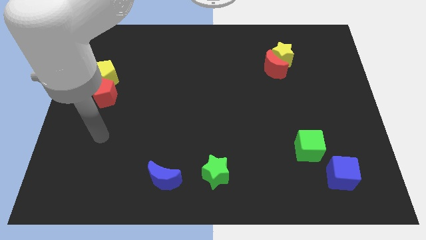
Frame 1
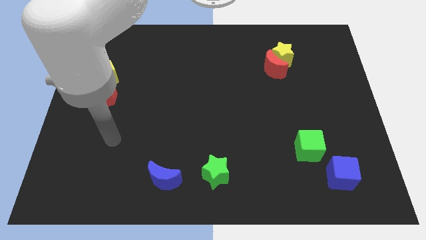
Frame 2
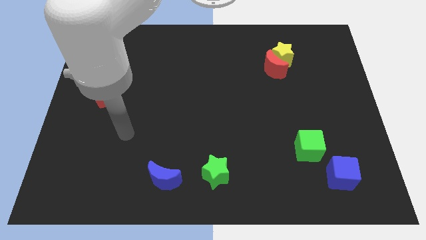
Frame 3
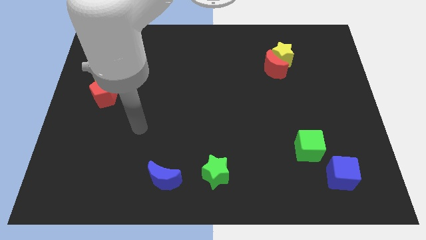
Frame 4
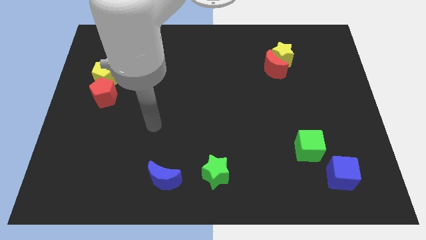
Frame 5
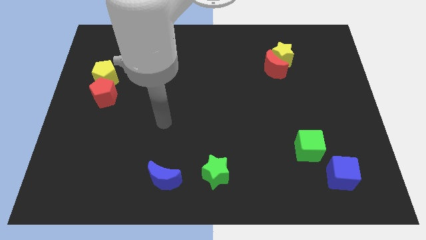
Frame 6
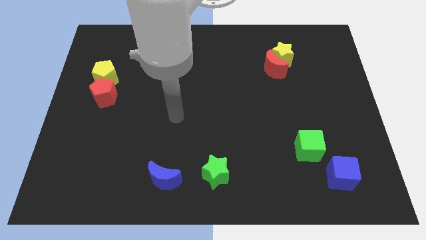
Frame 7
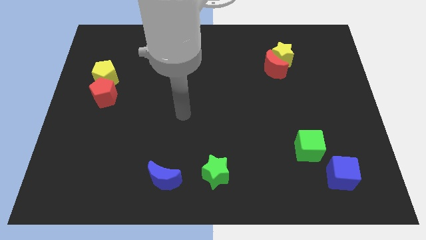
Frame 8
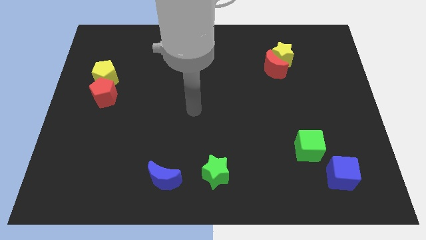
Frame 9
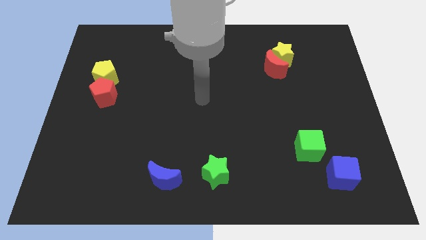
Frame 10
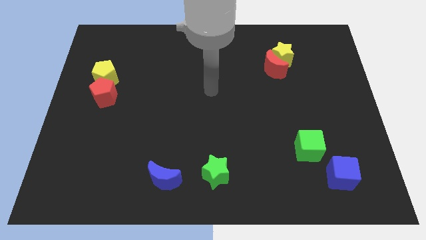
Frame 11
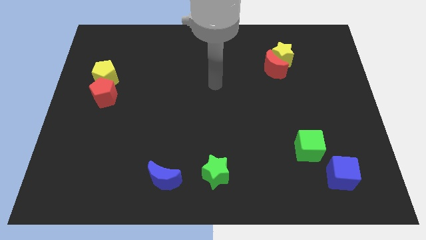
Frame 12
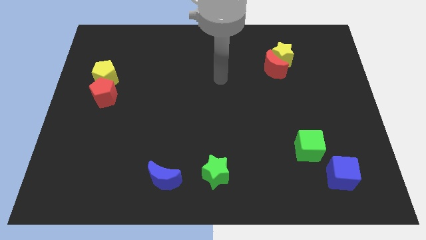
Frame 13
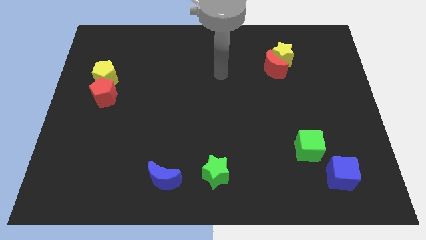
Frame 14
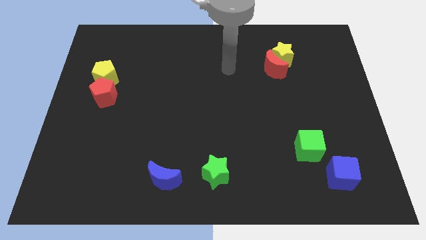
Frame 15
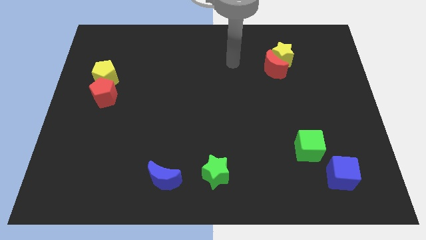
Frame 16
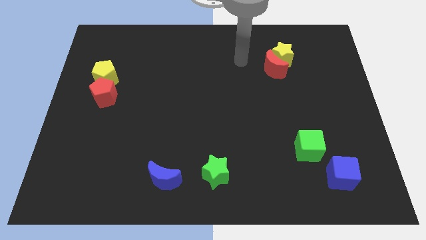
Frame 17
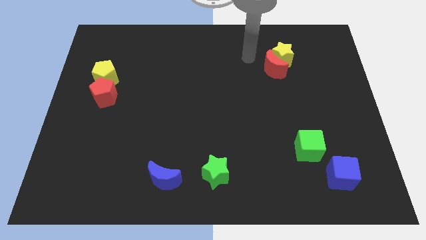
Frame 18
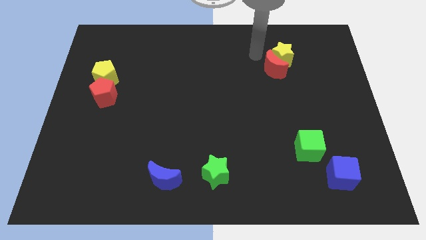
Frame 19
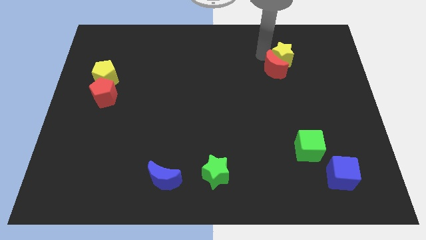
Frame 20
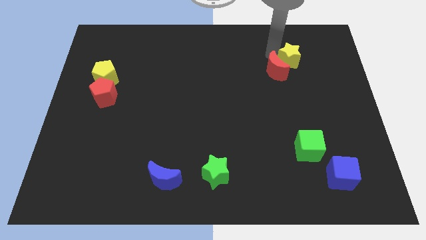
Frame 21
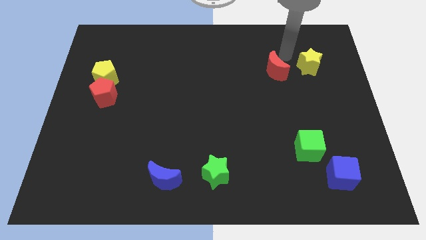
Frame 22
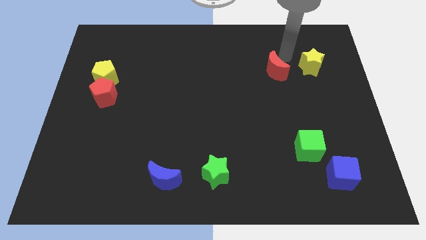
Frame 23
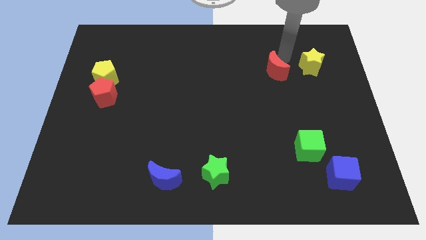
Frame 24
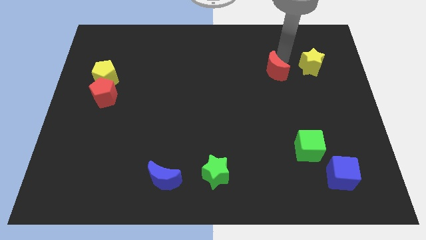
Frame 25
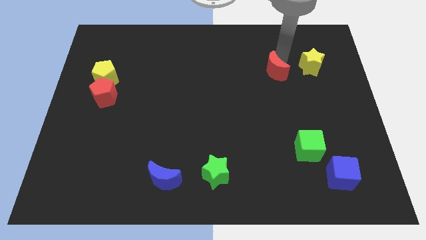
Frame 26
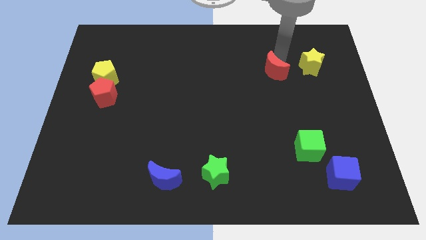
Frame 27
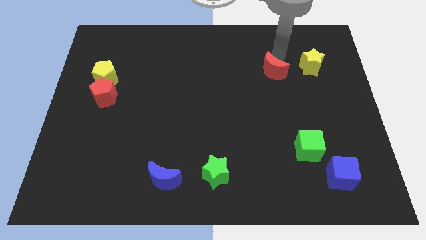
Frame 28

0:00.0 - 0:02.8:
move the red moon away from the yellow star

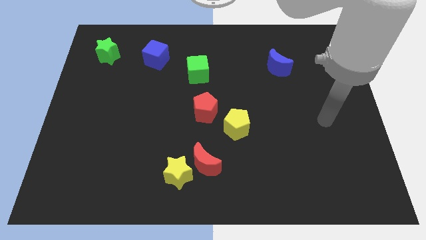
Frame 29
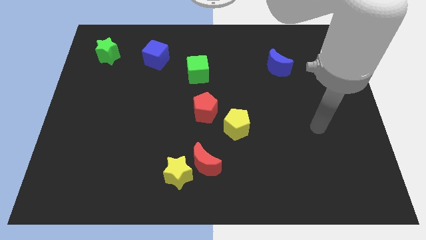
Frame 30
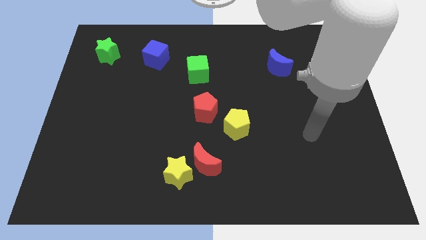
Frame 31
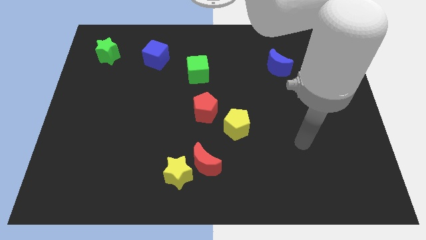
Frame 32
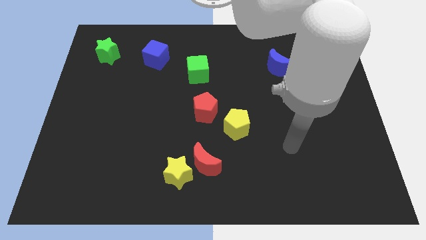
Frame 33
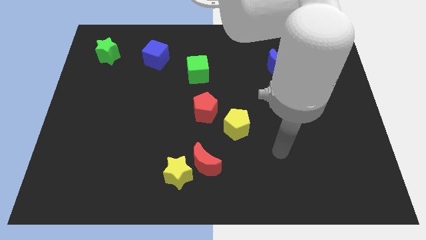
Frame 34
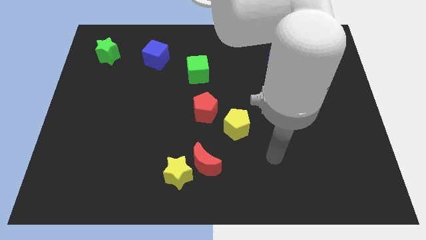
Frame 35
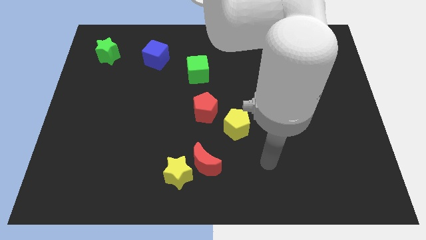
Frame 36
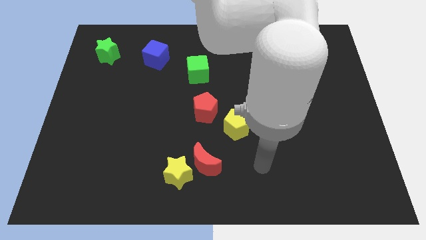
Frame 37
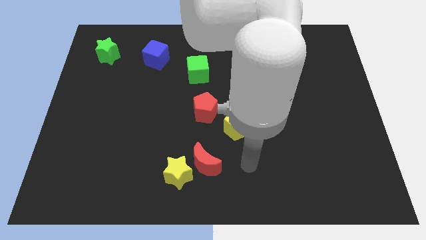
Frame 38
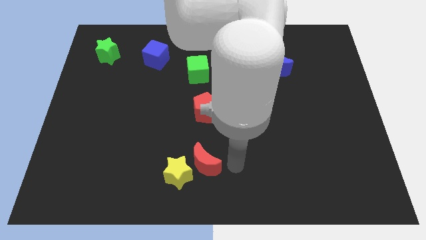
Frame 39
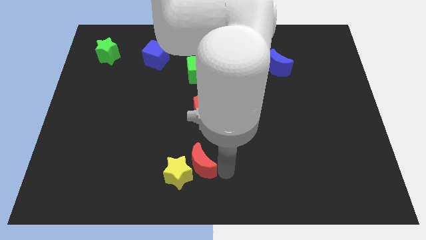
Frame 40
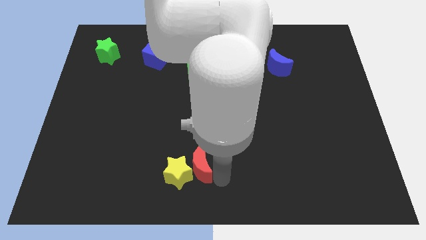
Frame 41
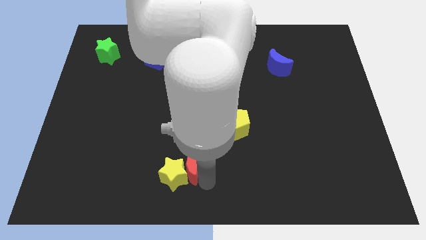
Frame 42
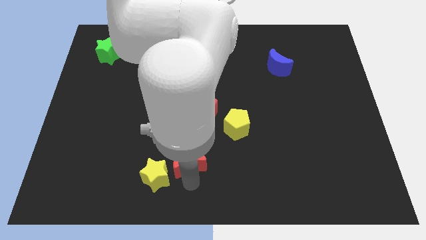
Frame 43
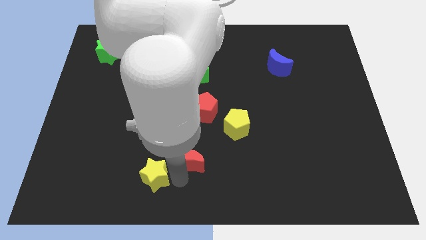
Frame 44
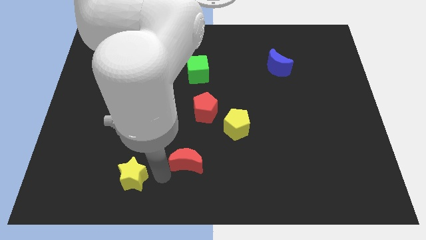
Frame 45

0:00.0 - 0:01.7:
pull the red moon apart from the yellow star

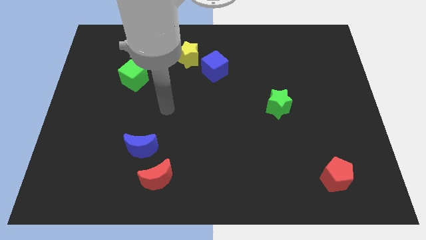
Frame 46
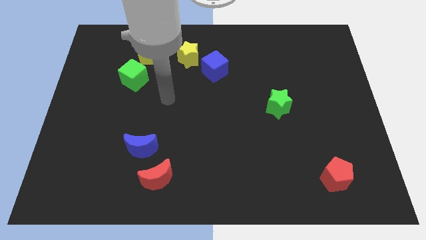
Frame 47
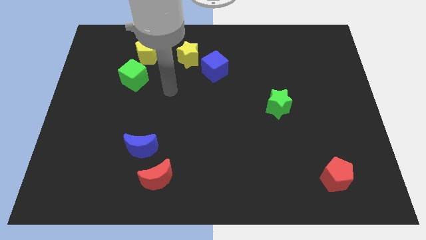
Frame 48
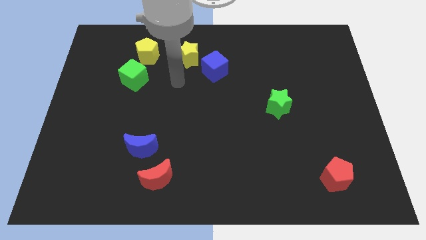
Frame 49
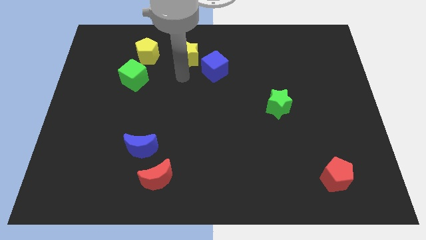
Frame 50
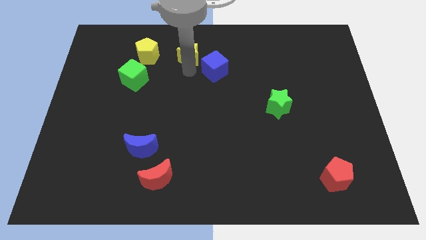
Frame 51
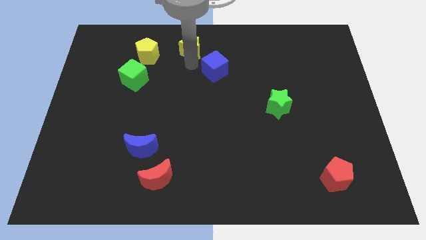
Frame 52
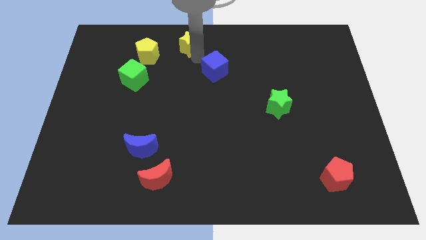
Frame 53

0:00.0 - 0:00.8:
pull the blue cube apart from the yellow star

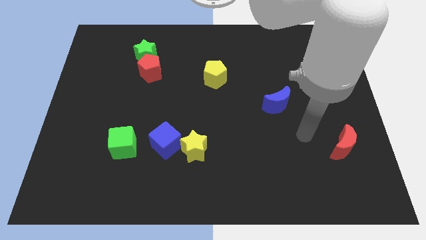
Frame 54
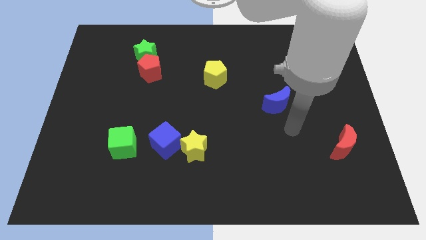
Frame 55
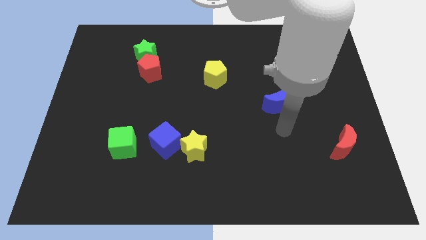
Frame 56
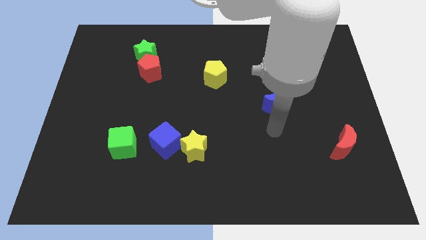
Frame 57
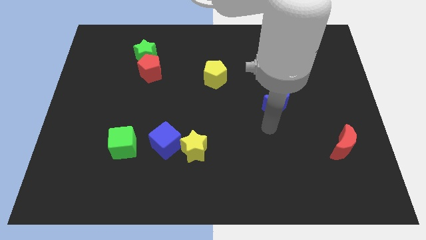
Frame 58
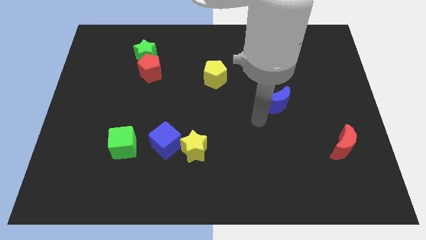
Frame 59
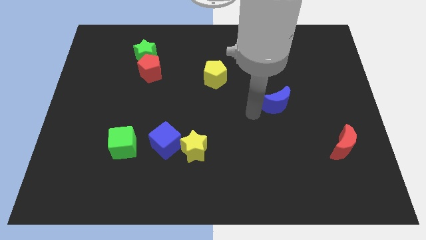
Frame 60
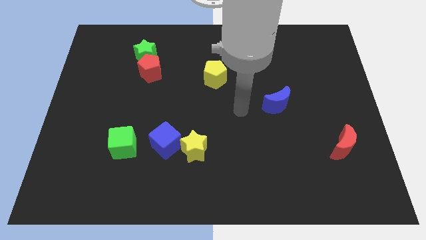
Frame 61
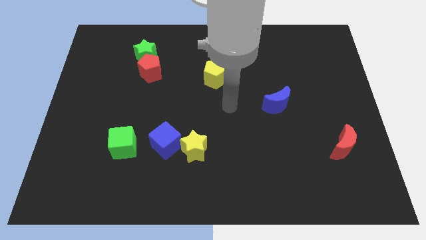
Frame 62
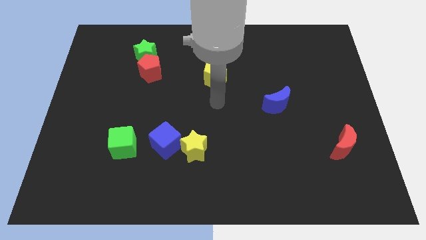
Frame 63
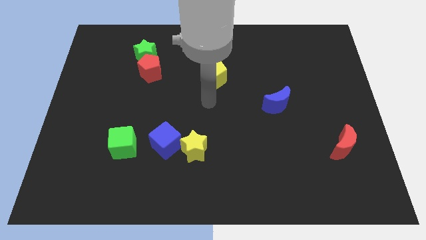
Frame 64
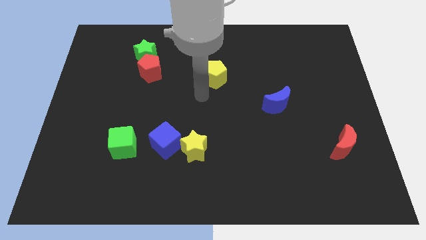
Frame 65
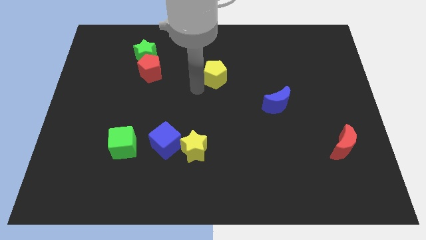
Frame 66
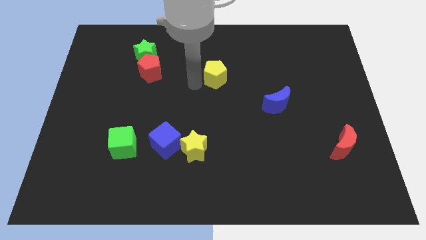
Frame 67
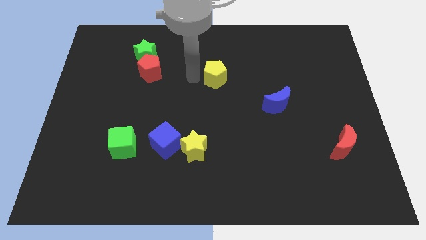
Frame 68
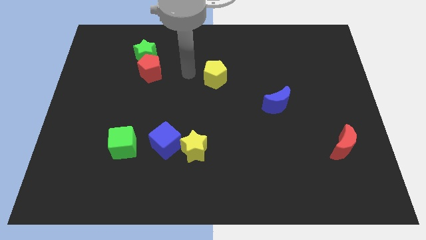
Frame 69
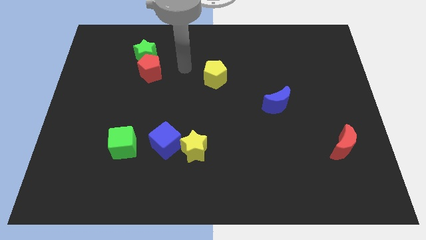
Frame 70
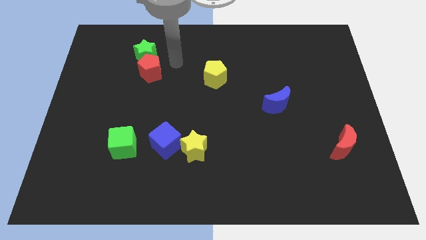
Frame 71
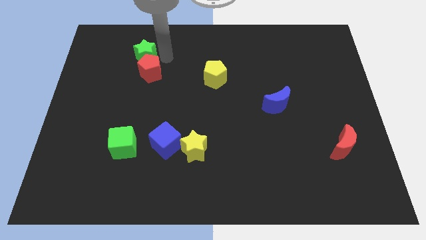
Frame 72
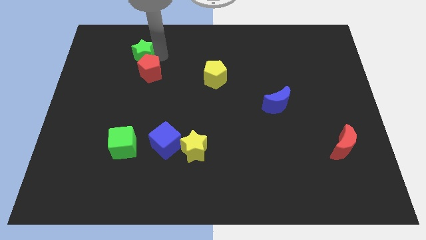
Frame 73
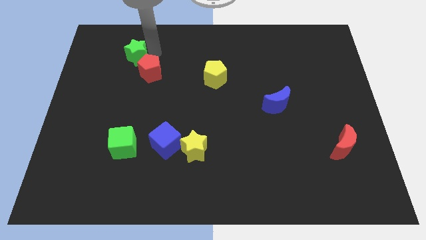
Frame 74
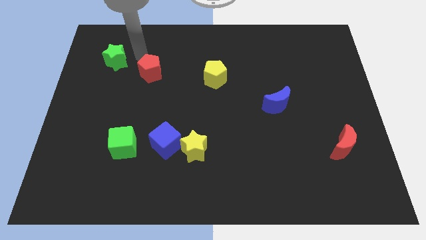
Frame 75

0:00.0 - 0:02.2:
separate the red pentagon from the green star

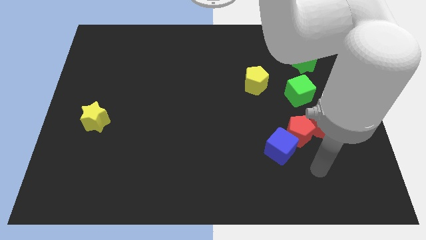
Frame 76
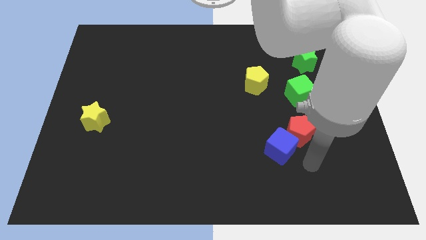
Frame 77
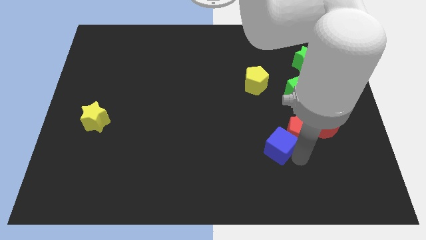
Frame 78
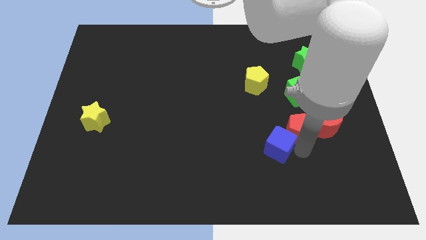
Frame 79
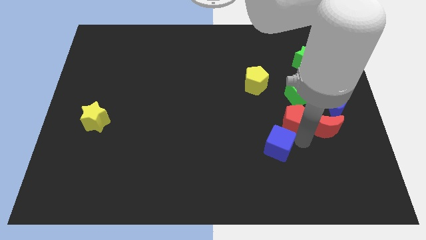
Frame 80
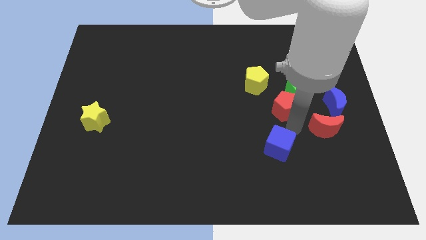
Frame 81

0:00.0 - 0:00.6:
pull the blue cube apart from the red pentagon

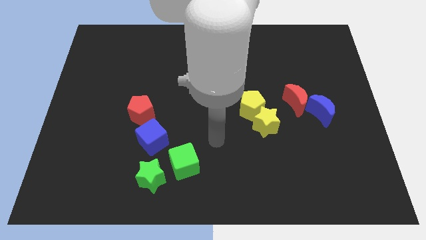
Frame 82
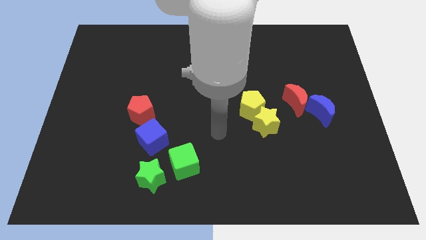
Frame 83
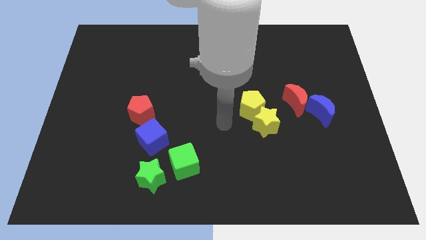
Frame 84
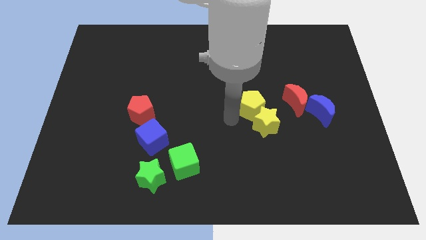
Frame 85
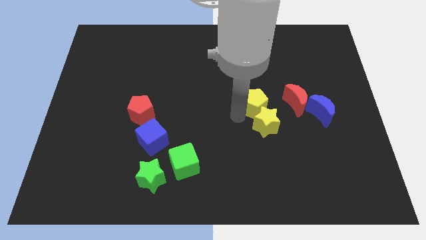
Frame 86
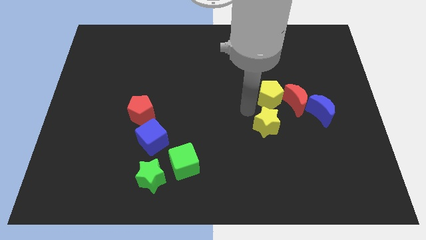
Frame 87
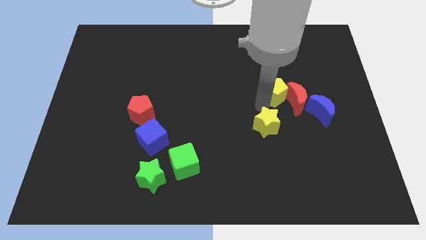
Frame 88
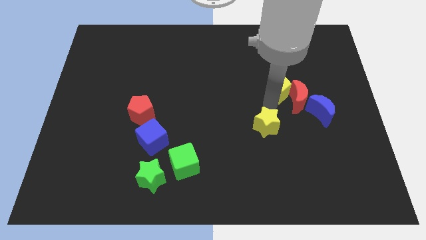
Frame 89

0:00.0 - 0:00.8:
move the yellow star away from the yellow pentagon

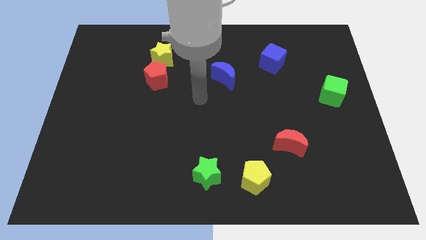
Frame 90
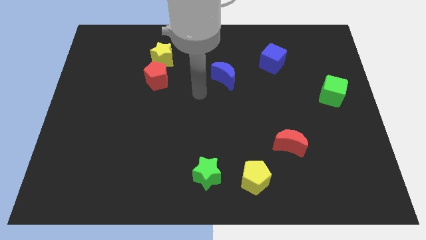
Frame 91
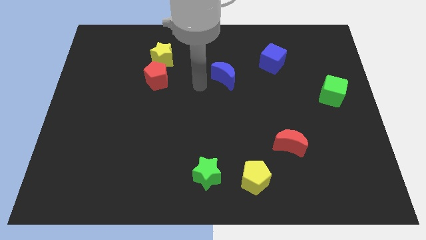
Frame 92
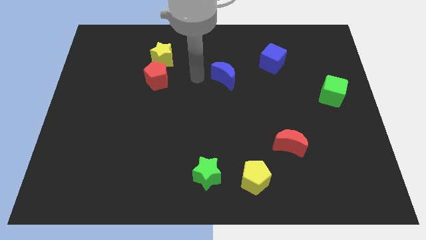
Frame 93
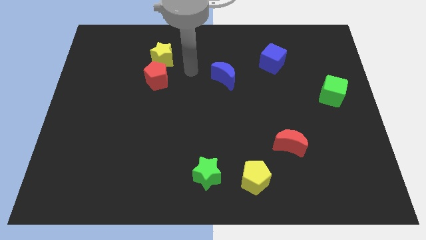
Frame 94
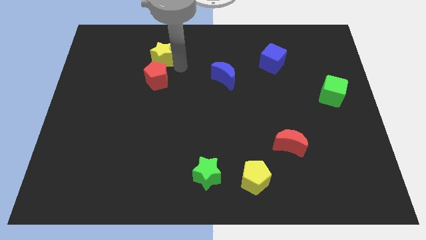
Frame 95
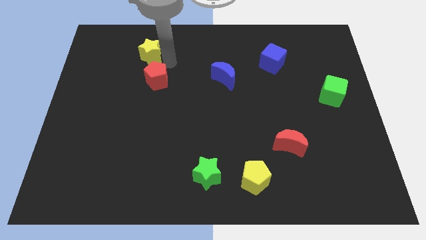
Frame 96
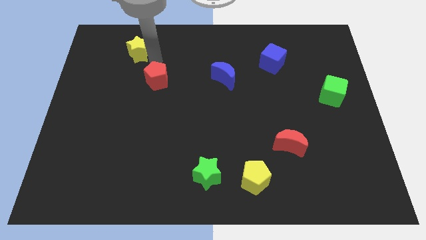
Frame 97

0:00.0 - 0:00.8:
separate the red pentagon from the yellow star
